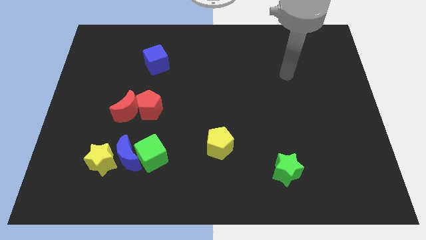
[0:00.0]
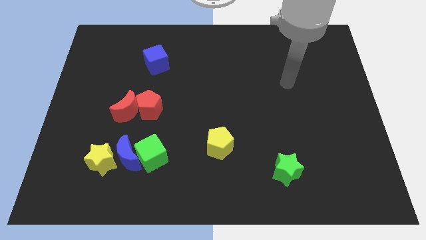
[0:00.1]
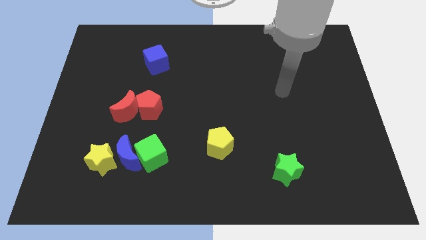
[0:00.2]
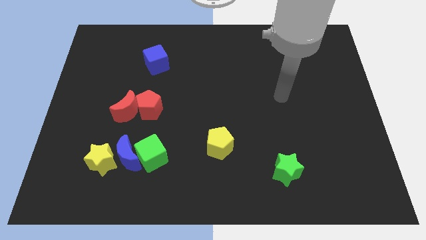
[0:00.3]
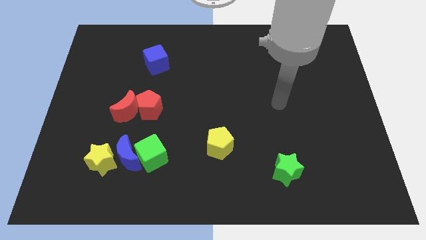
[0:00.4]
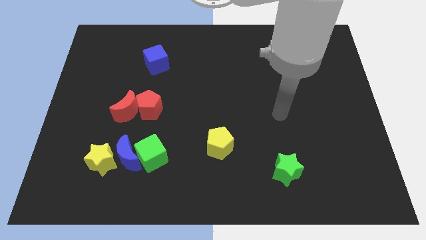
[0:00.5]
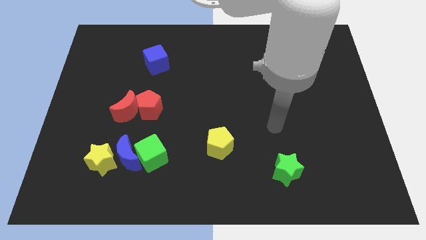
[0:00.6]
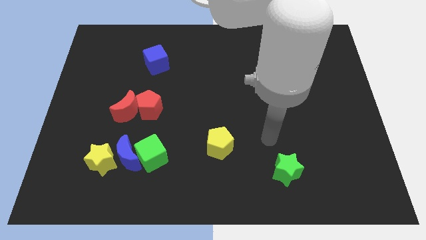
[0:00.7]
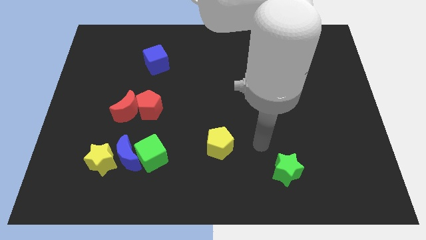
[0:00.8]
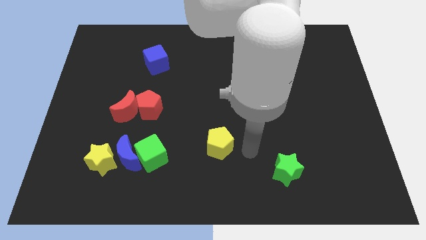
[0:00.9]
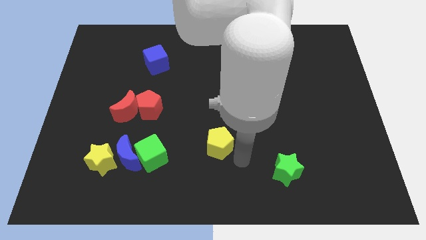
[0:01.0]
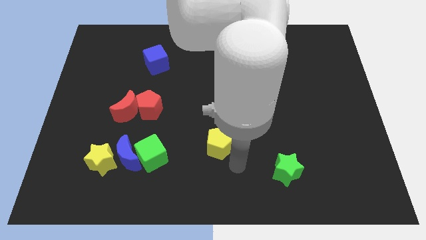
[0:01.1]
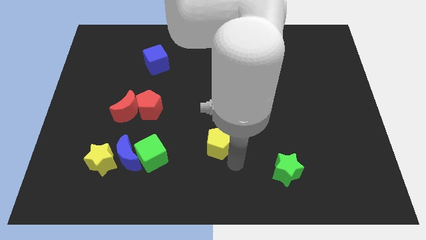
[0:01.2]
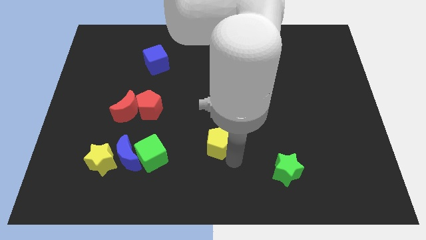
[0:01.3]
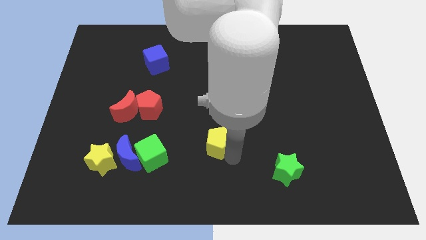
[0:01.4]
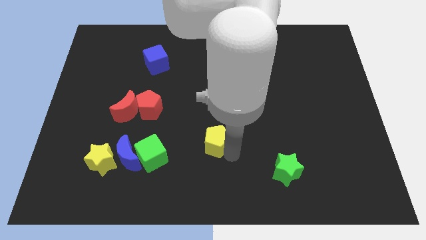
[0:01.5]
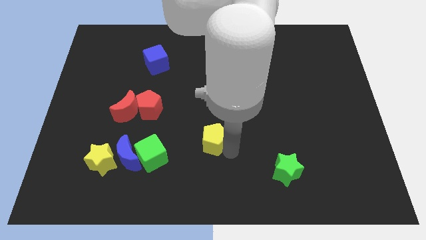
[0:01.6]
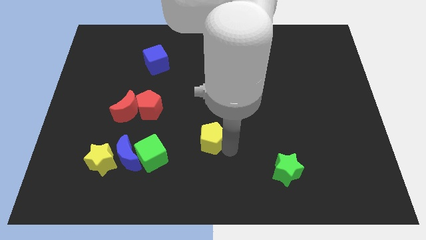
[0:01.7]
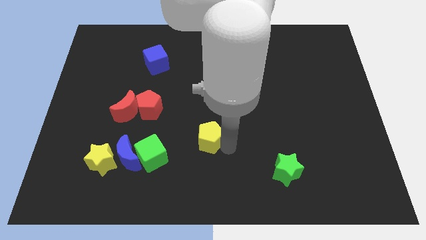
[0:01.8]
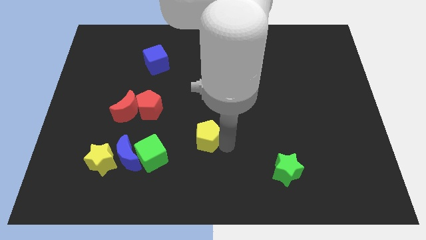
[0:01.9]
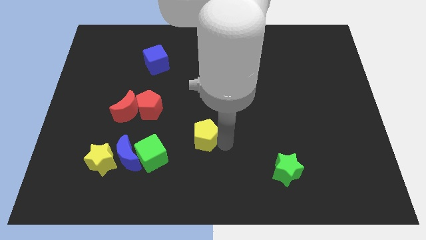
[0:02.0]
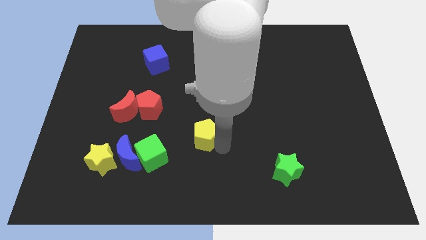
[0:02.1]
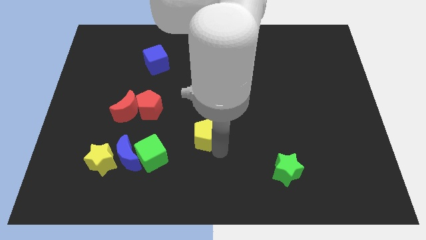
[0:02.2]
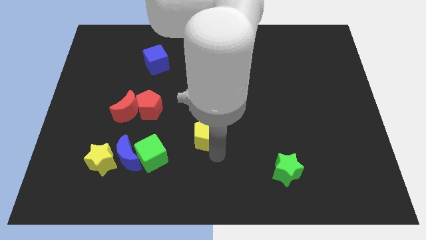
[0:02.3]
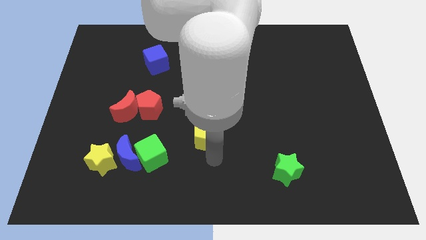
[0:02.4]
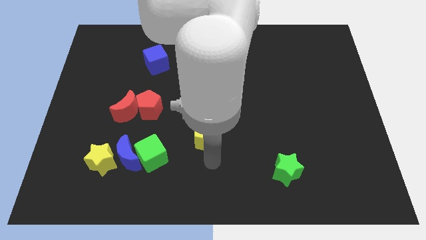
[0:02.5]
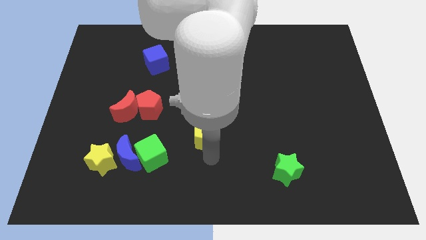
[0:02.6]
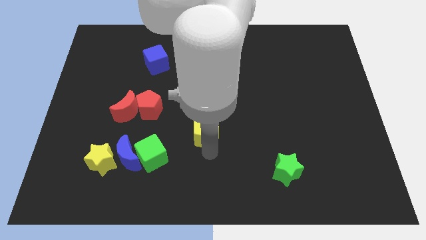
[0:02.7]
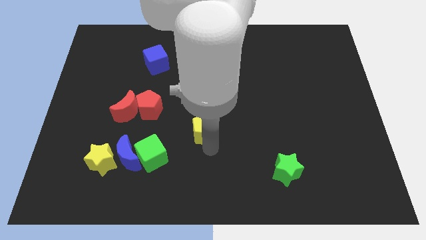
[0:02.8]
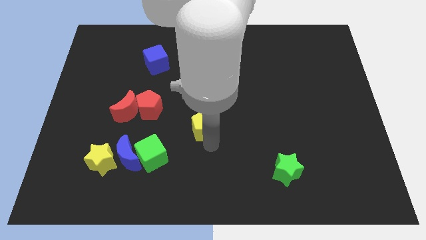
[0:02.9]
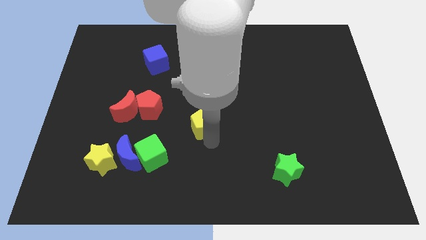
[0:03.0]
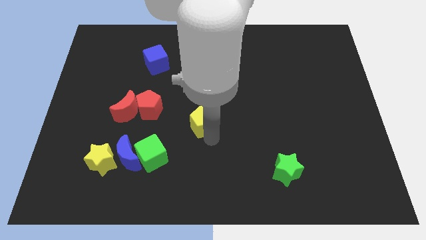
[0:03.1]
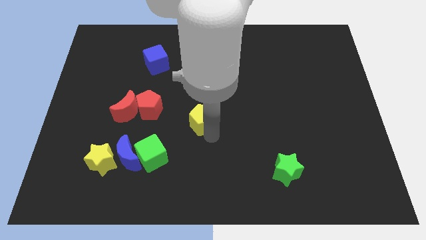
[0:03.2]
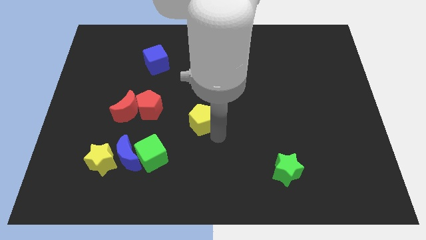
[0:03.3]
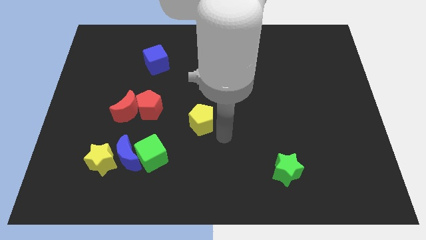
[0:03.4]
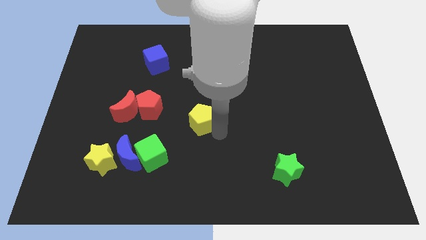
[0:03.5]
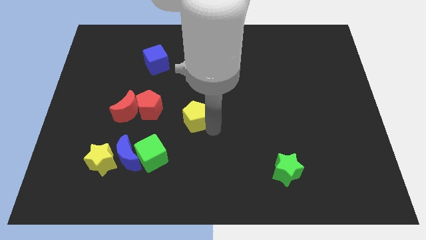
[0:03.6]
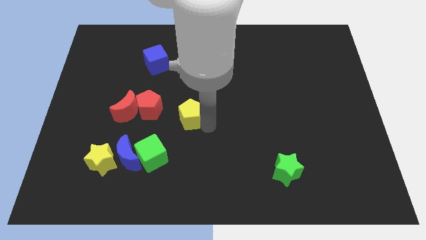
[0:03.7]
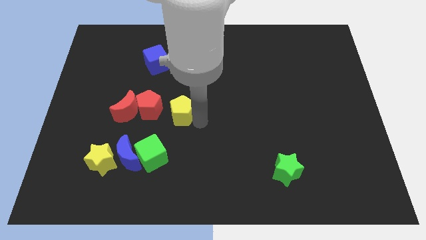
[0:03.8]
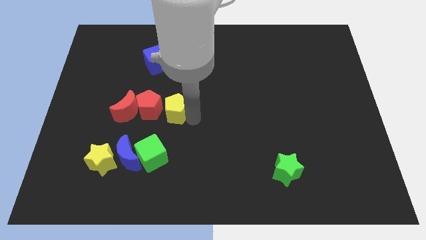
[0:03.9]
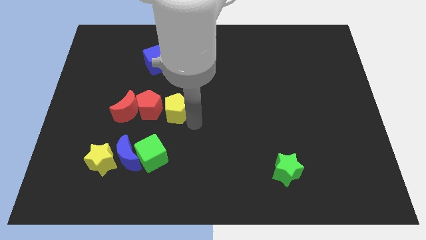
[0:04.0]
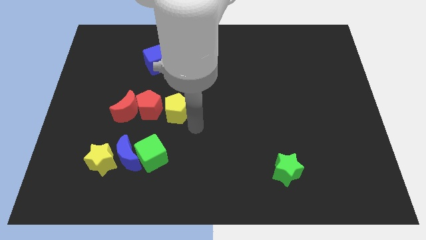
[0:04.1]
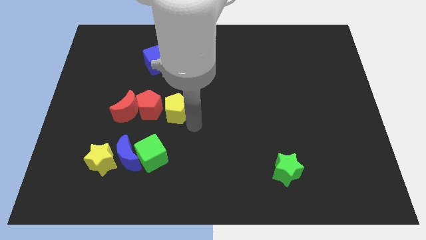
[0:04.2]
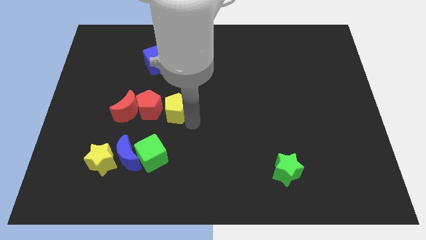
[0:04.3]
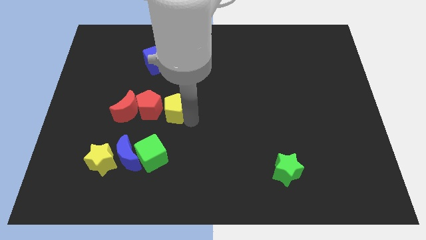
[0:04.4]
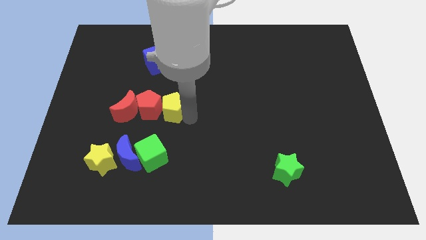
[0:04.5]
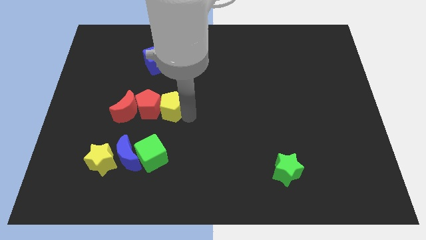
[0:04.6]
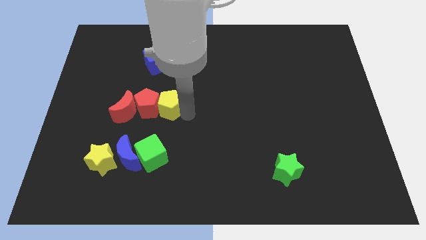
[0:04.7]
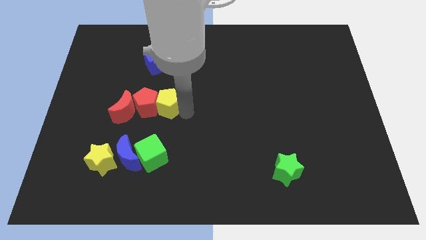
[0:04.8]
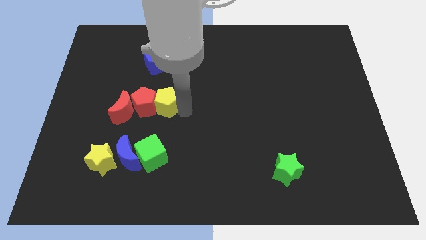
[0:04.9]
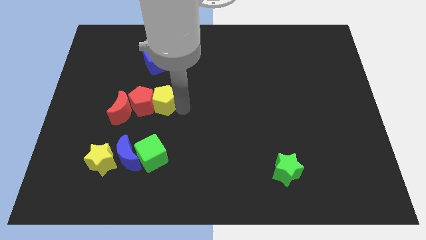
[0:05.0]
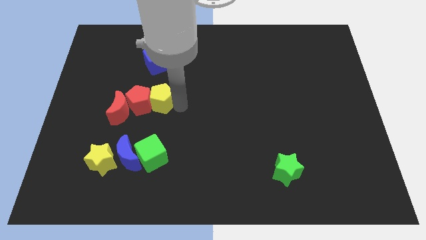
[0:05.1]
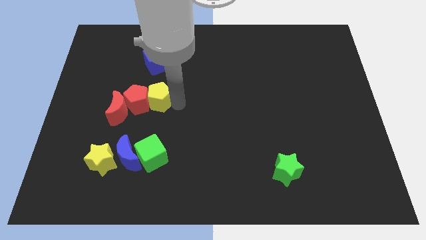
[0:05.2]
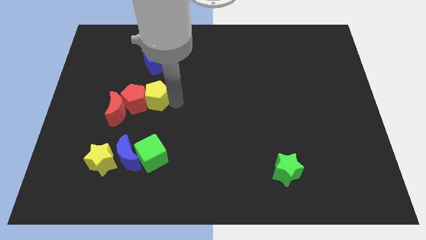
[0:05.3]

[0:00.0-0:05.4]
push the yellow pentagon upwards and then to the left

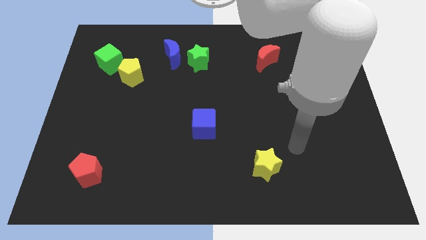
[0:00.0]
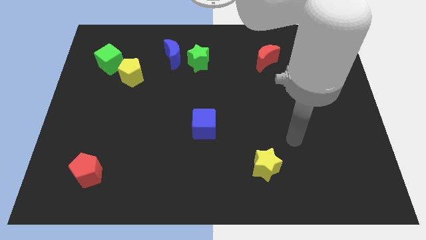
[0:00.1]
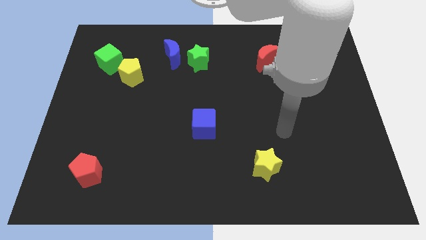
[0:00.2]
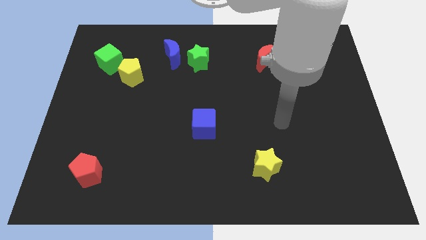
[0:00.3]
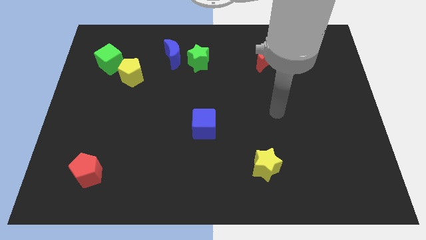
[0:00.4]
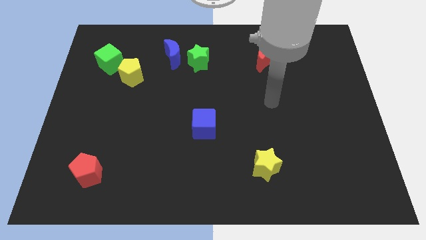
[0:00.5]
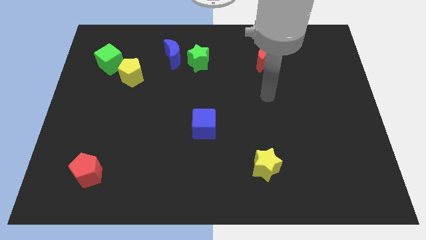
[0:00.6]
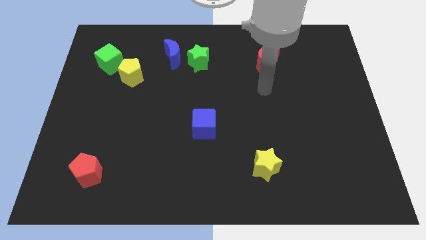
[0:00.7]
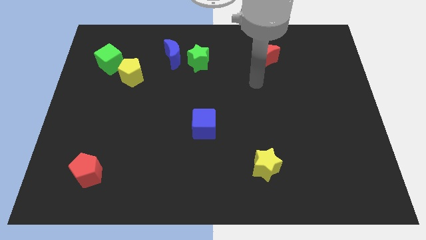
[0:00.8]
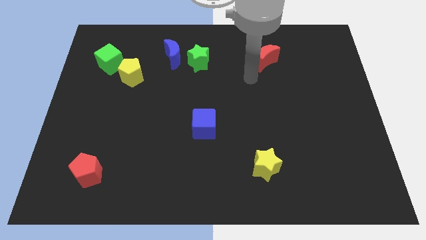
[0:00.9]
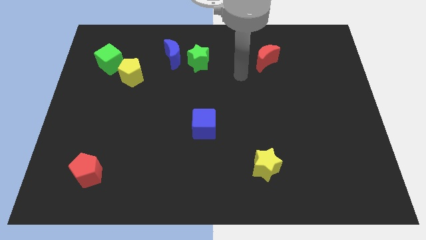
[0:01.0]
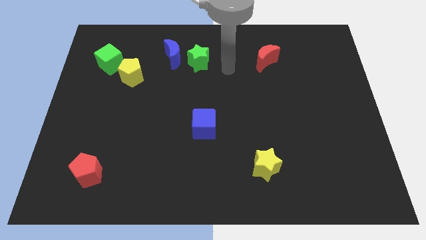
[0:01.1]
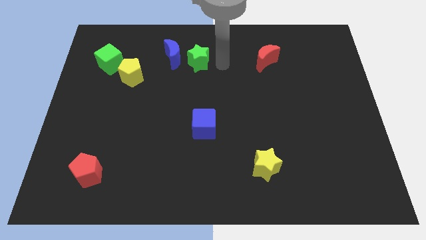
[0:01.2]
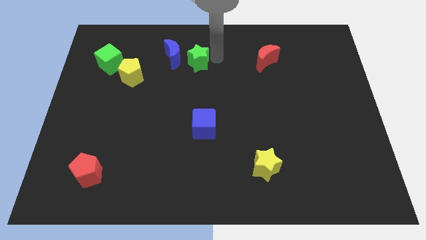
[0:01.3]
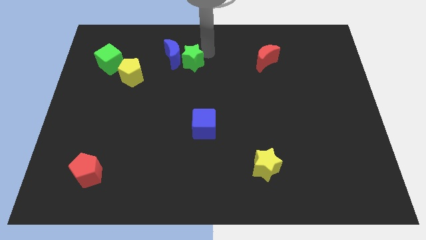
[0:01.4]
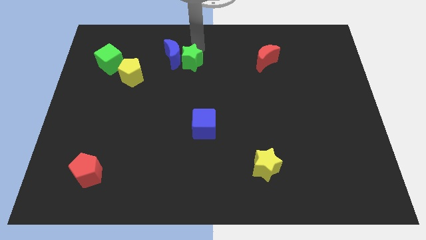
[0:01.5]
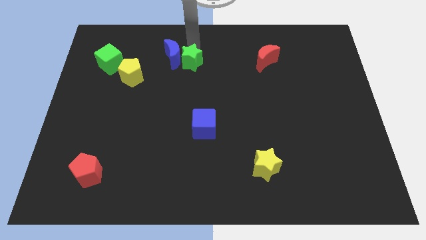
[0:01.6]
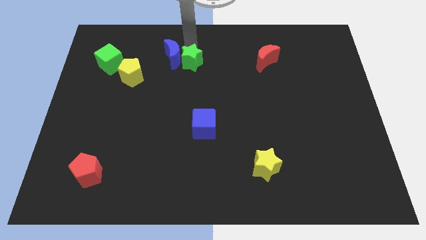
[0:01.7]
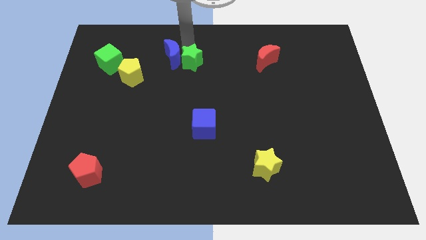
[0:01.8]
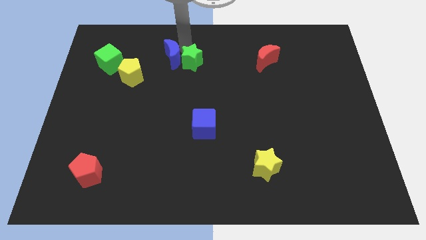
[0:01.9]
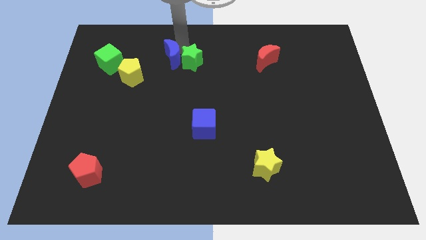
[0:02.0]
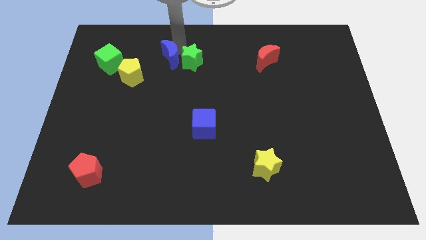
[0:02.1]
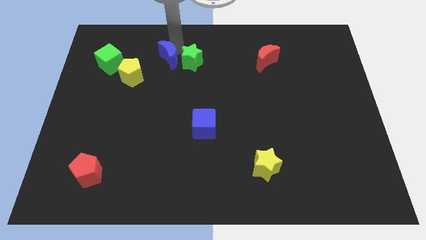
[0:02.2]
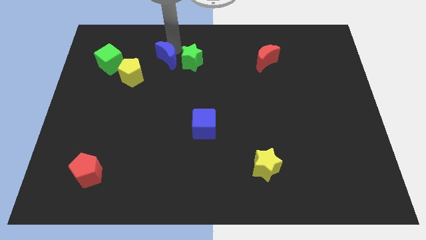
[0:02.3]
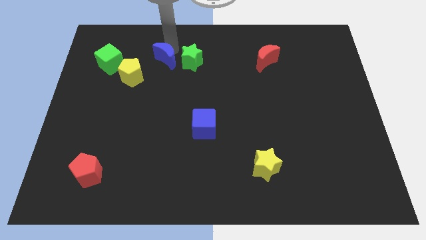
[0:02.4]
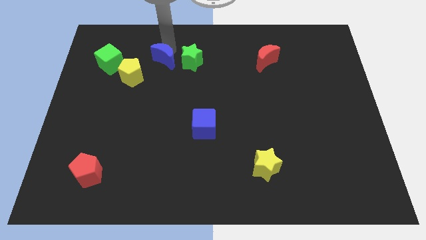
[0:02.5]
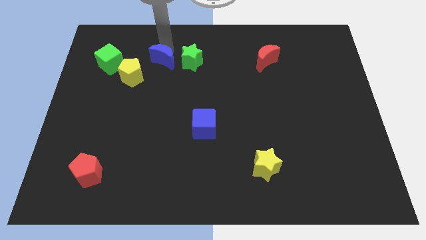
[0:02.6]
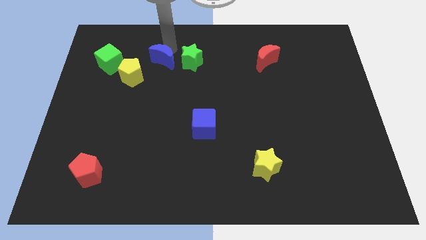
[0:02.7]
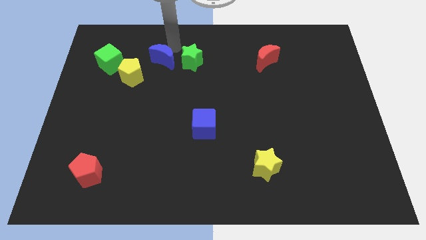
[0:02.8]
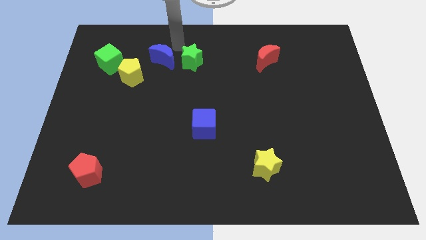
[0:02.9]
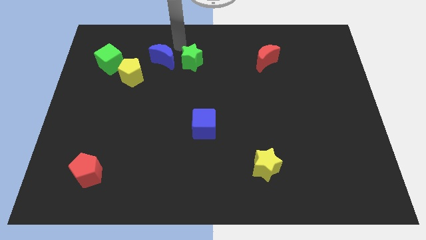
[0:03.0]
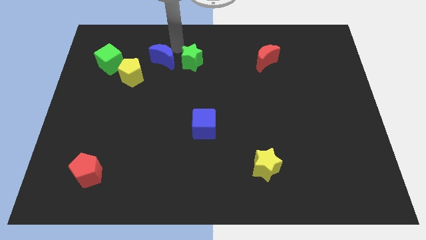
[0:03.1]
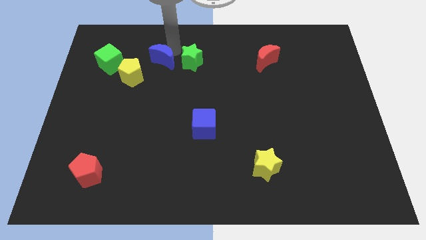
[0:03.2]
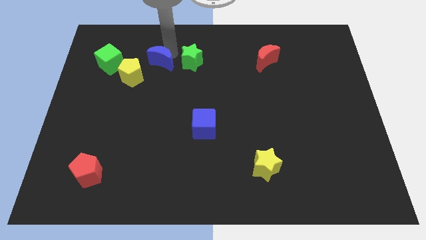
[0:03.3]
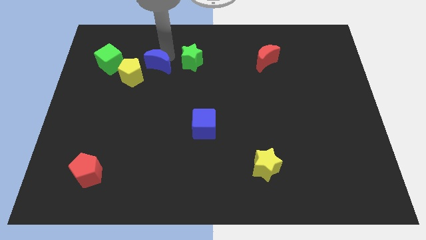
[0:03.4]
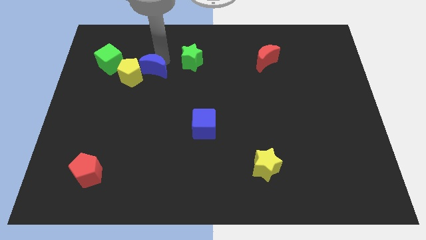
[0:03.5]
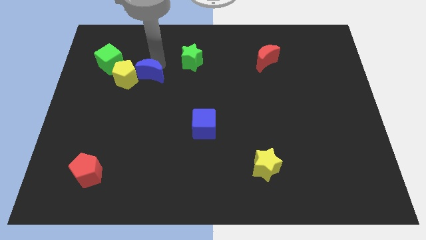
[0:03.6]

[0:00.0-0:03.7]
slightly slide the blue moon diagonally down and to the left
